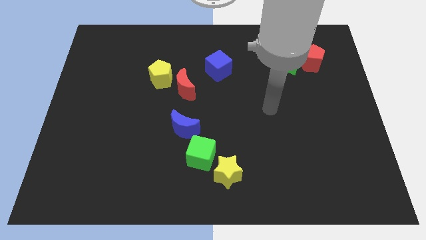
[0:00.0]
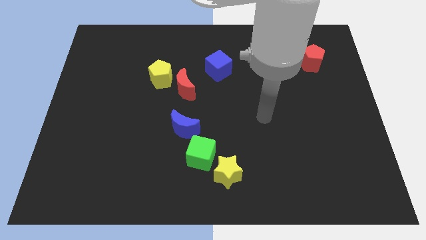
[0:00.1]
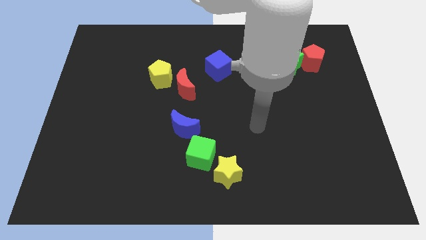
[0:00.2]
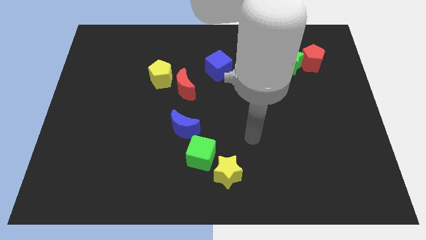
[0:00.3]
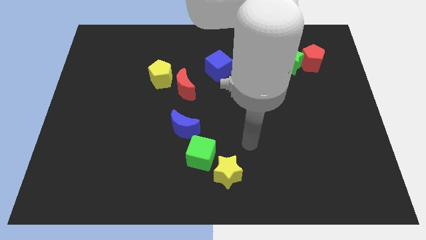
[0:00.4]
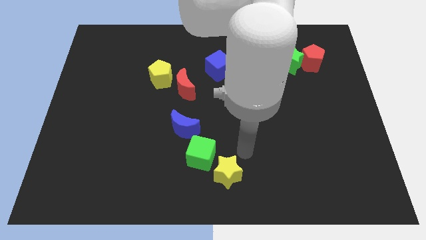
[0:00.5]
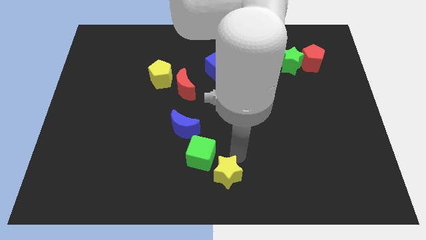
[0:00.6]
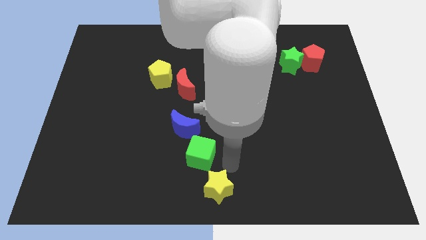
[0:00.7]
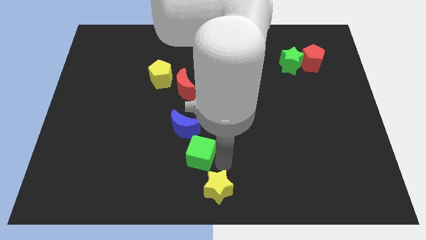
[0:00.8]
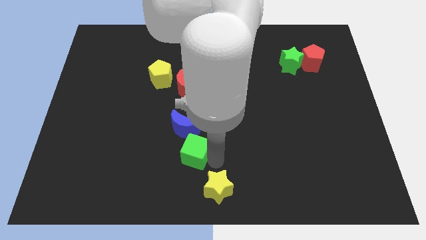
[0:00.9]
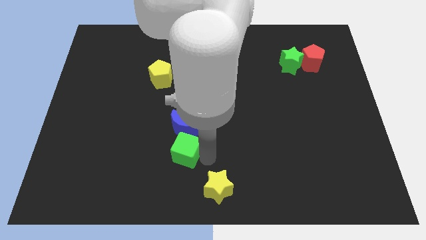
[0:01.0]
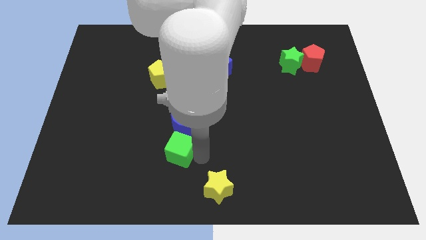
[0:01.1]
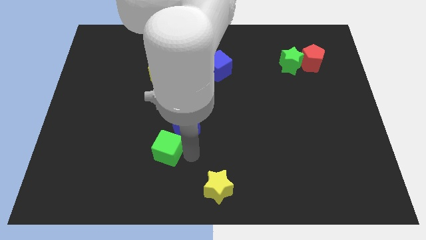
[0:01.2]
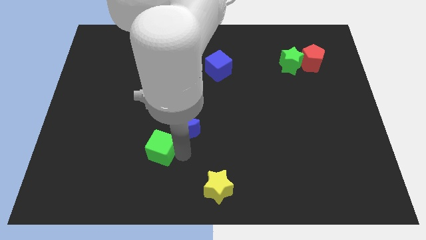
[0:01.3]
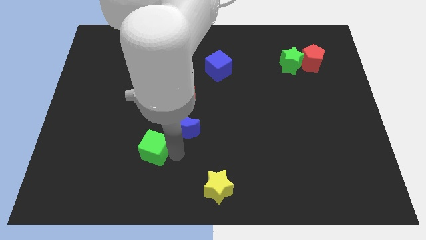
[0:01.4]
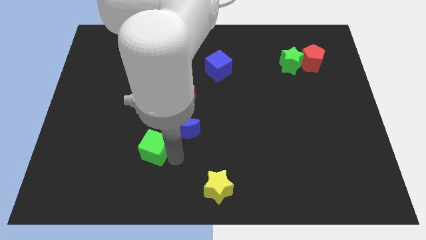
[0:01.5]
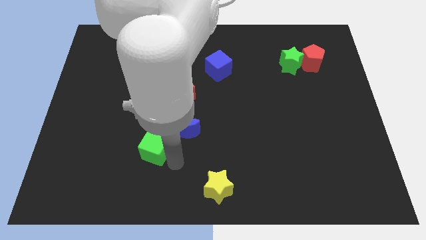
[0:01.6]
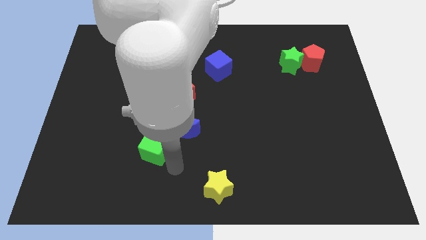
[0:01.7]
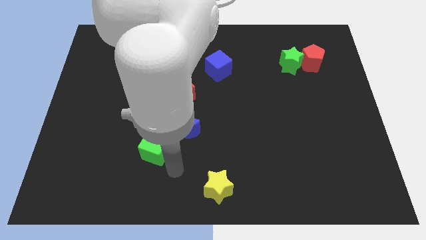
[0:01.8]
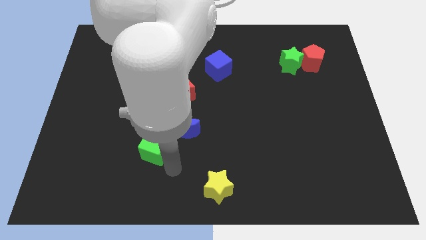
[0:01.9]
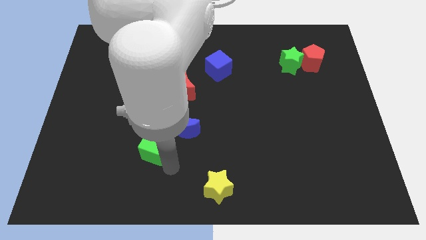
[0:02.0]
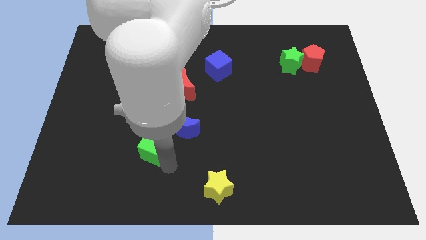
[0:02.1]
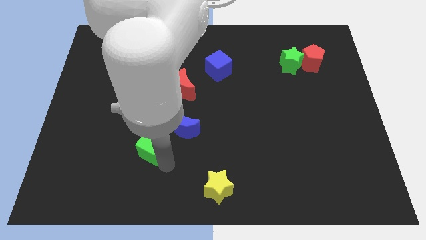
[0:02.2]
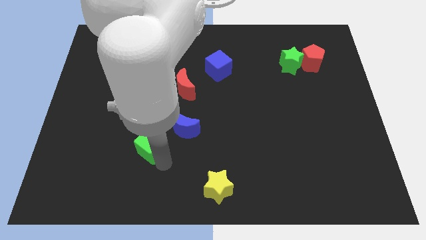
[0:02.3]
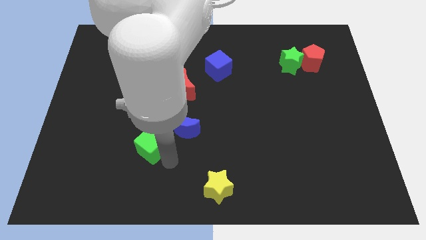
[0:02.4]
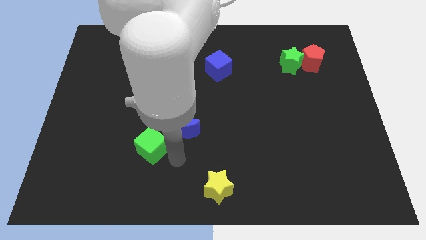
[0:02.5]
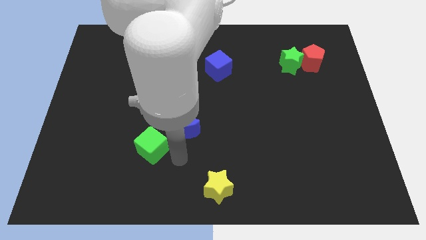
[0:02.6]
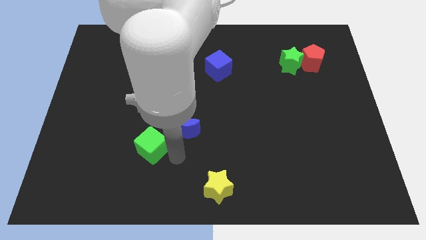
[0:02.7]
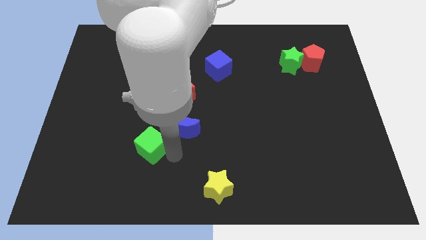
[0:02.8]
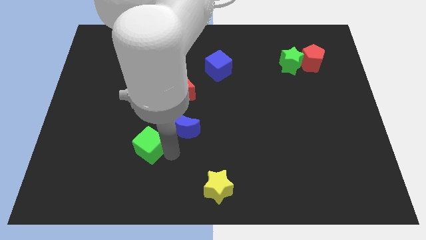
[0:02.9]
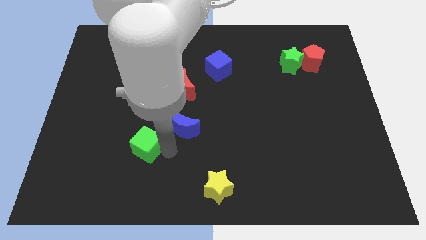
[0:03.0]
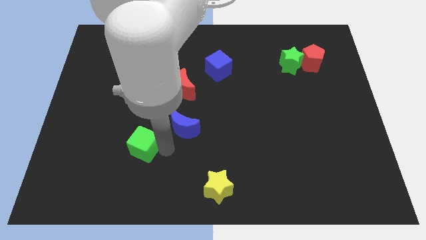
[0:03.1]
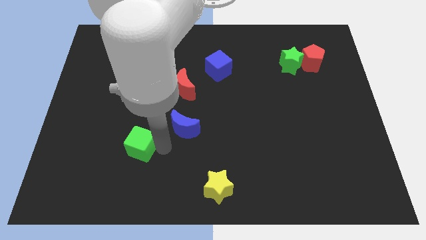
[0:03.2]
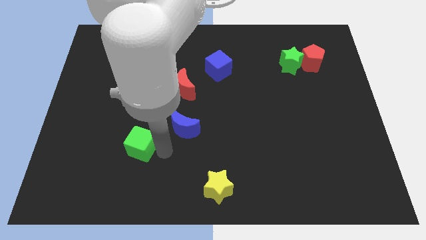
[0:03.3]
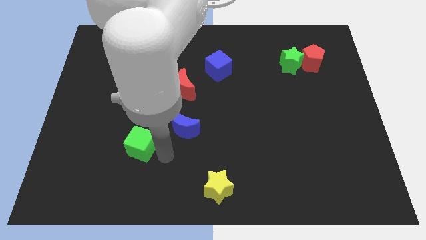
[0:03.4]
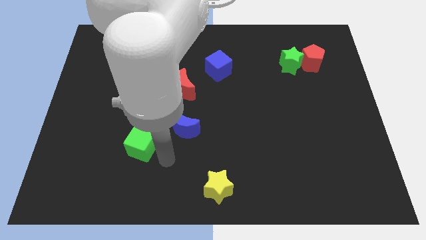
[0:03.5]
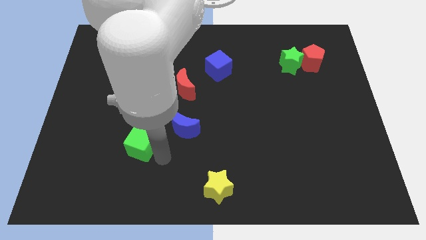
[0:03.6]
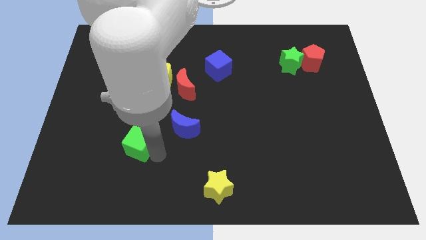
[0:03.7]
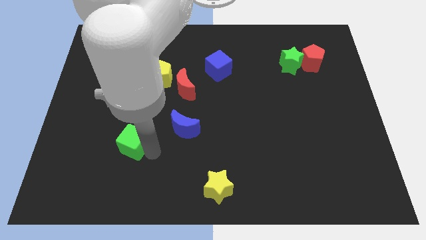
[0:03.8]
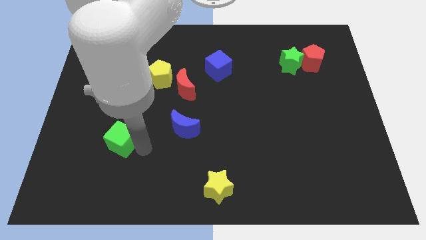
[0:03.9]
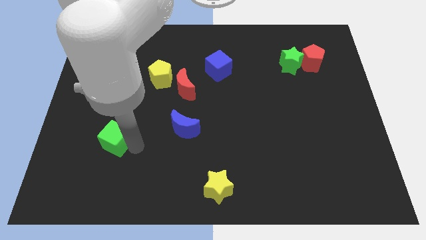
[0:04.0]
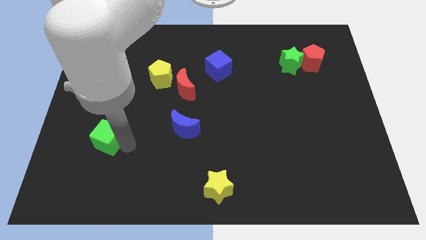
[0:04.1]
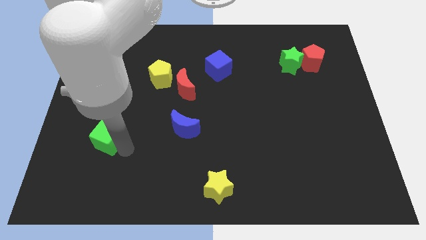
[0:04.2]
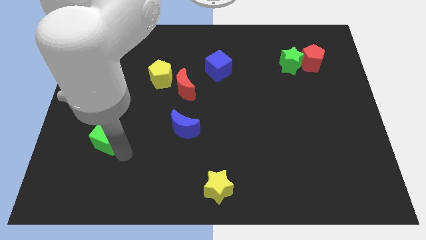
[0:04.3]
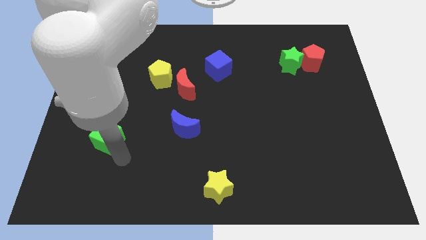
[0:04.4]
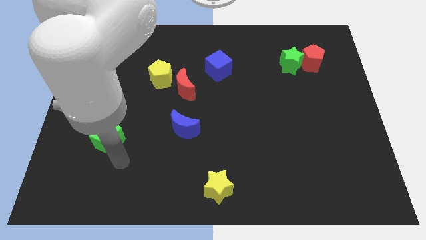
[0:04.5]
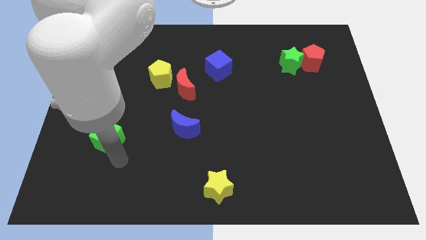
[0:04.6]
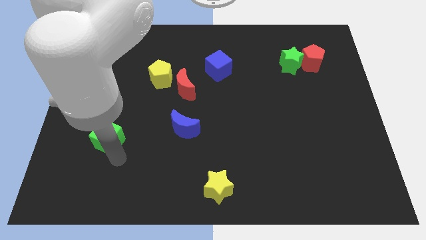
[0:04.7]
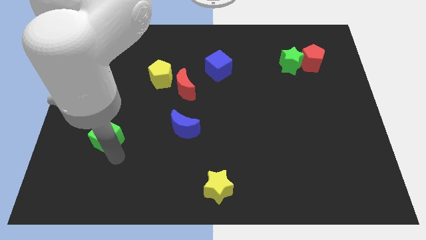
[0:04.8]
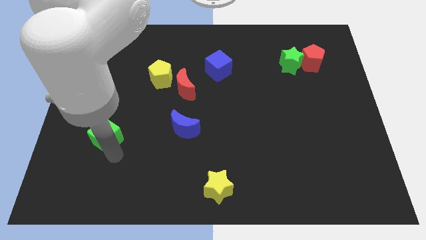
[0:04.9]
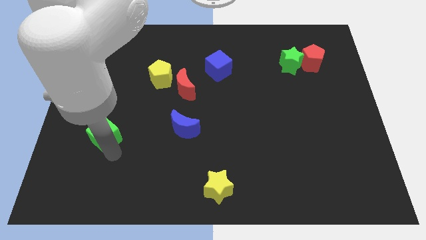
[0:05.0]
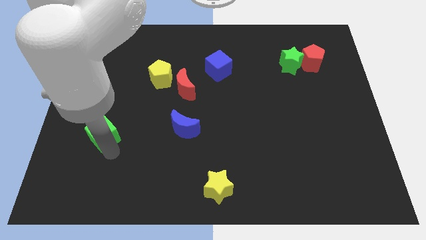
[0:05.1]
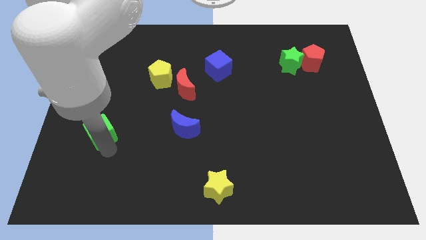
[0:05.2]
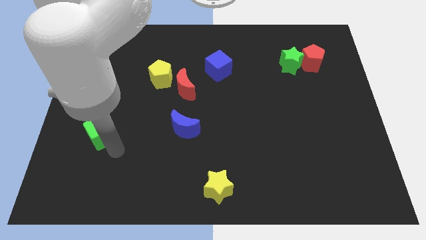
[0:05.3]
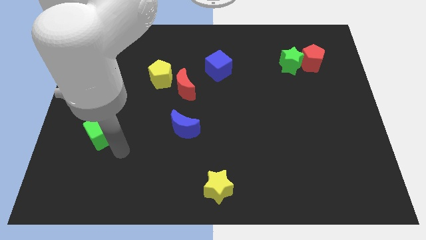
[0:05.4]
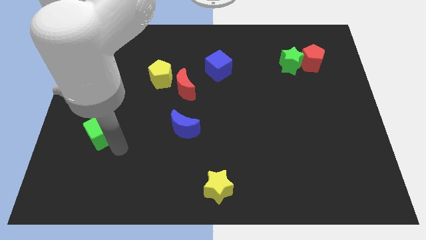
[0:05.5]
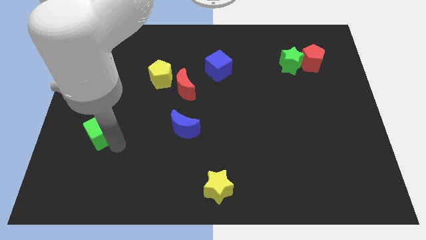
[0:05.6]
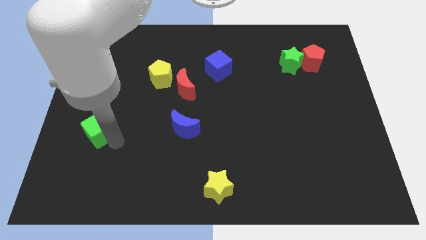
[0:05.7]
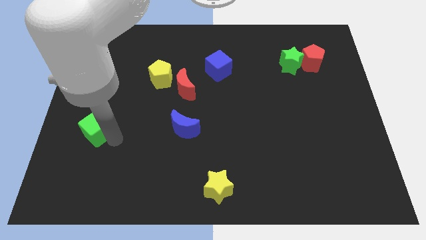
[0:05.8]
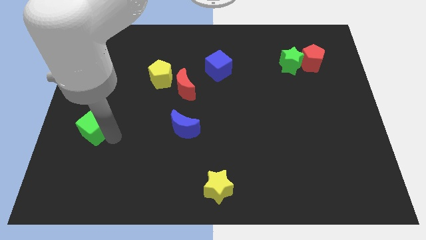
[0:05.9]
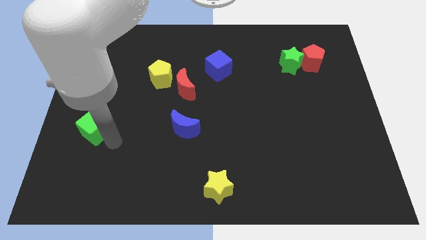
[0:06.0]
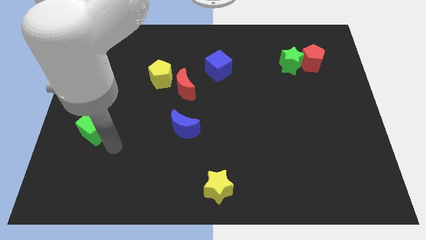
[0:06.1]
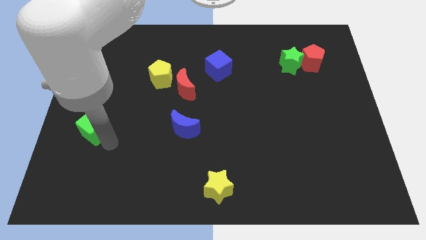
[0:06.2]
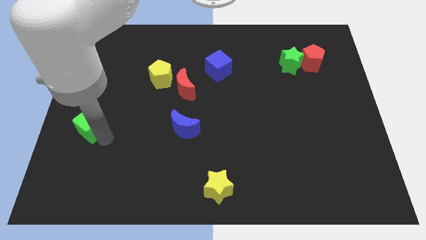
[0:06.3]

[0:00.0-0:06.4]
move the green cube to the left side
